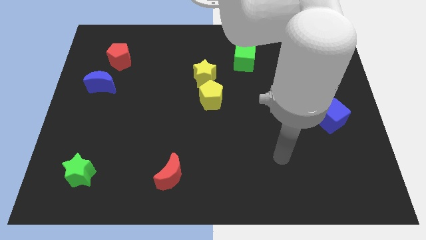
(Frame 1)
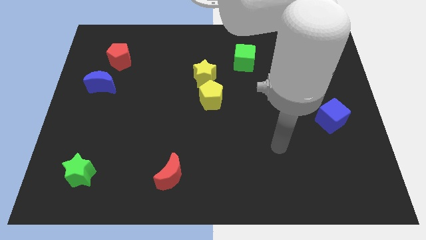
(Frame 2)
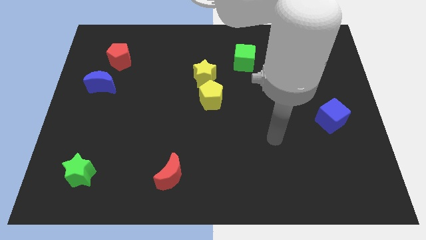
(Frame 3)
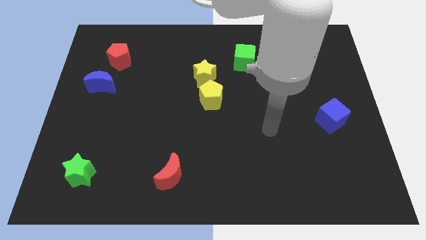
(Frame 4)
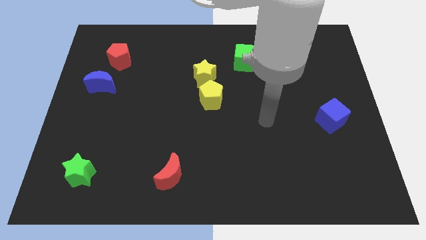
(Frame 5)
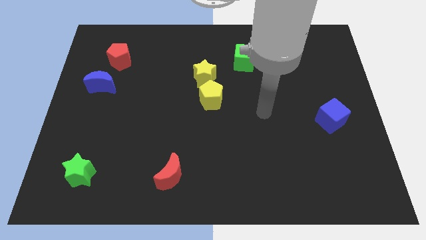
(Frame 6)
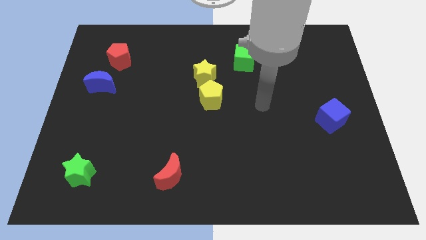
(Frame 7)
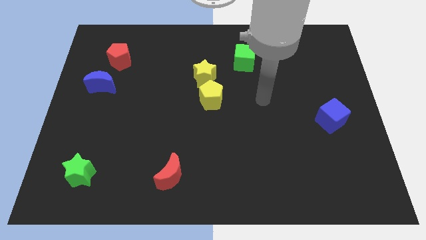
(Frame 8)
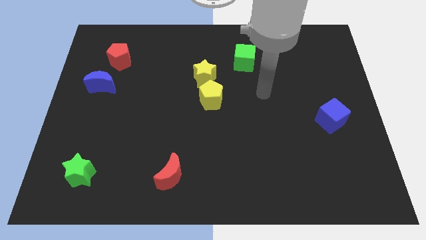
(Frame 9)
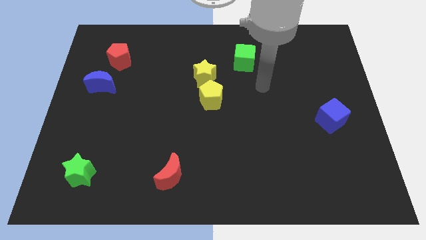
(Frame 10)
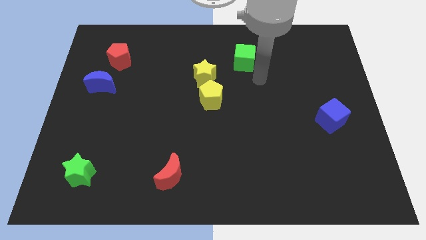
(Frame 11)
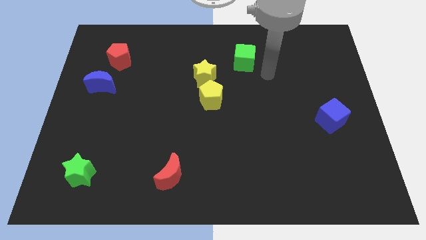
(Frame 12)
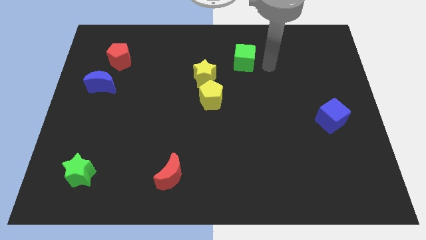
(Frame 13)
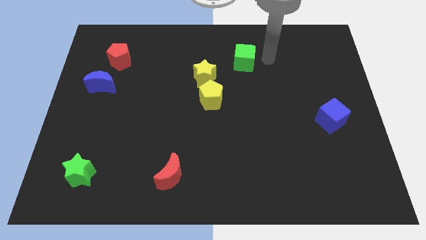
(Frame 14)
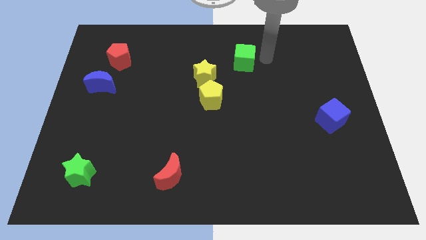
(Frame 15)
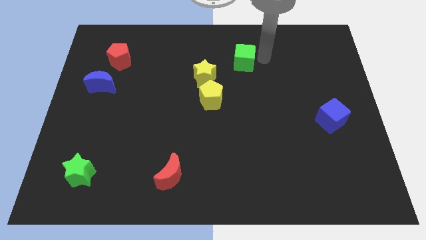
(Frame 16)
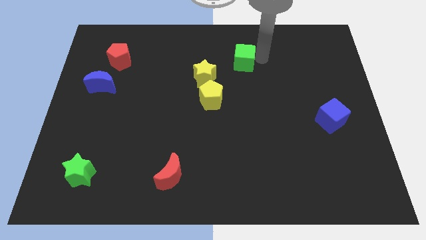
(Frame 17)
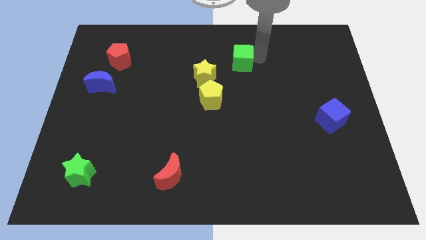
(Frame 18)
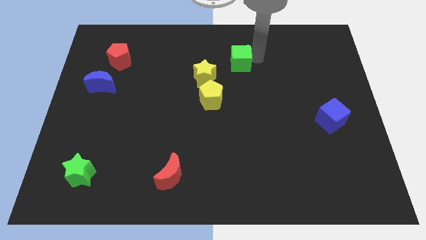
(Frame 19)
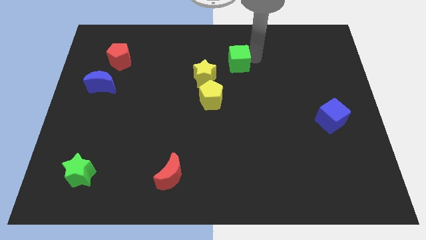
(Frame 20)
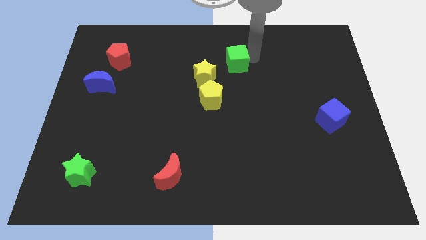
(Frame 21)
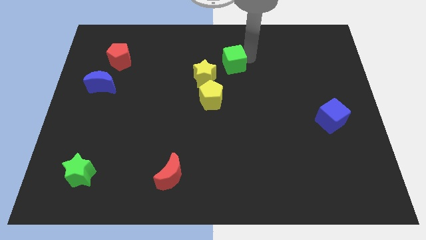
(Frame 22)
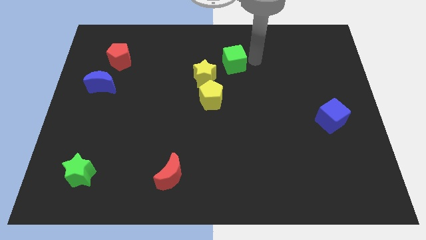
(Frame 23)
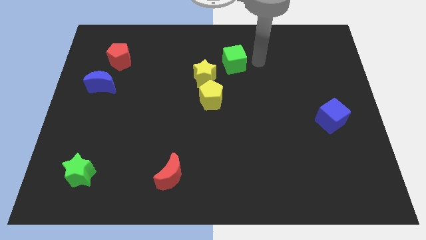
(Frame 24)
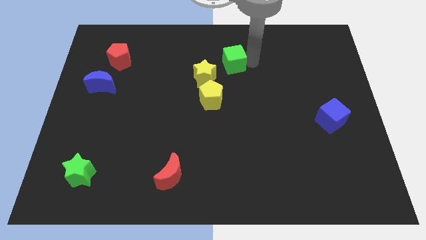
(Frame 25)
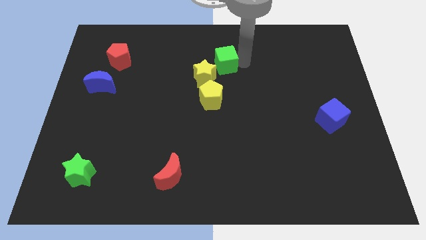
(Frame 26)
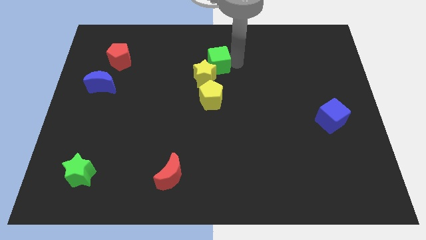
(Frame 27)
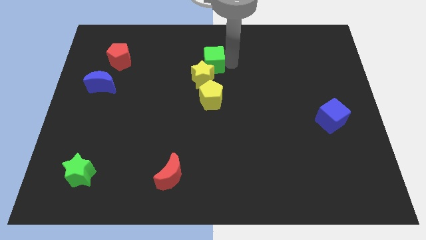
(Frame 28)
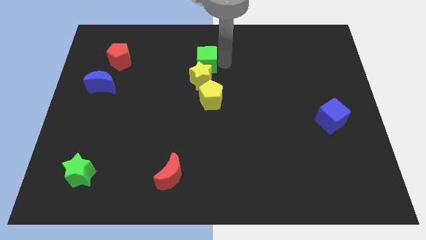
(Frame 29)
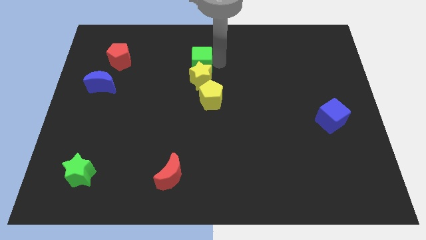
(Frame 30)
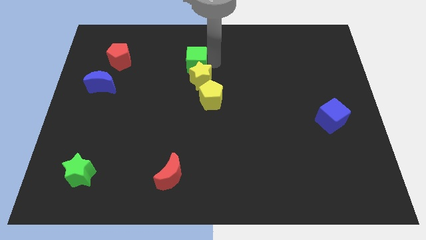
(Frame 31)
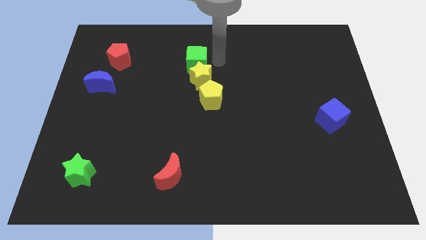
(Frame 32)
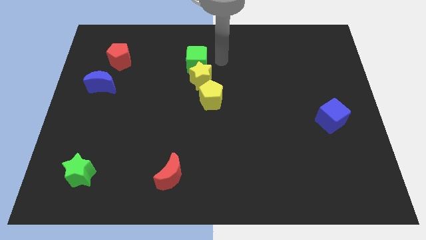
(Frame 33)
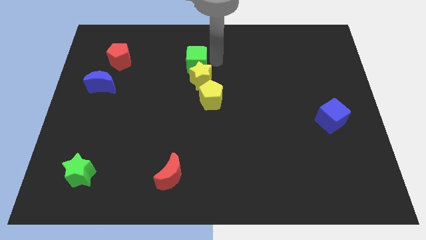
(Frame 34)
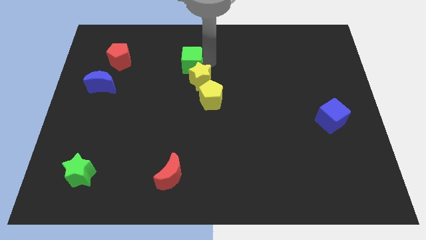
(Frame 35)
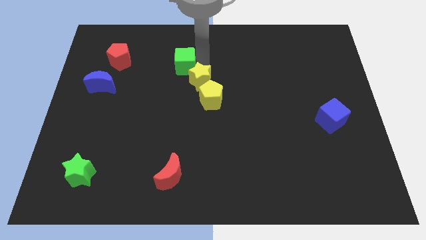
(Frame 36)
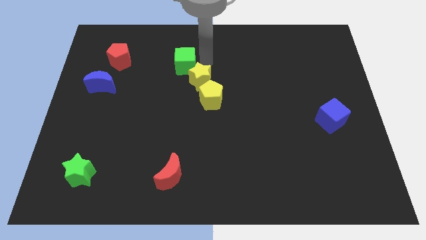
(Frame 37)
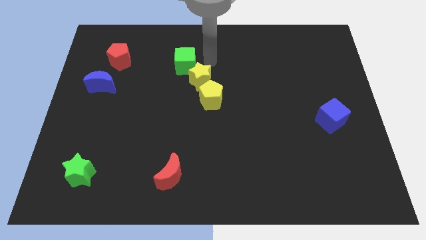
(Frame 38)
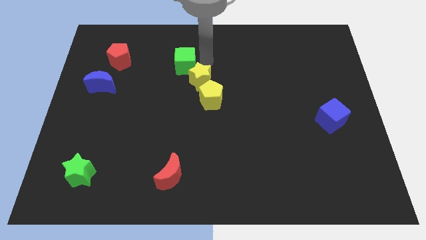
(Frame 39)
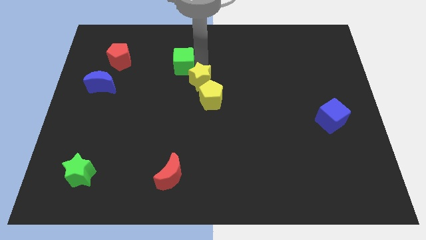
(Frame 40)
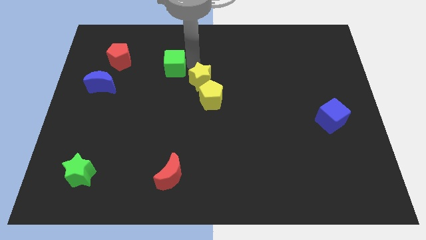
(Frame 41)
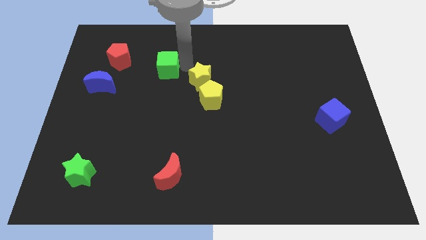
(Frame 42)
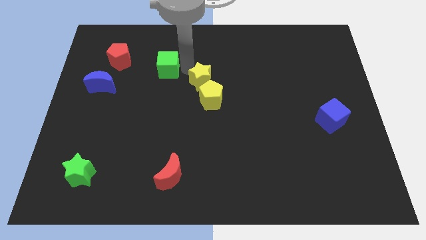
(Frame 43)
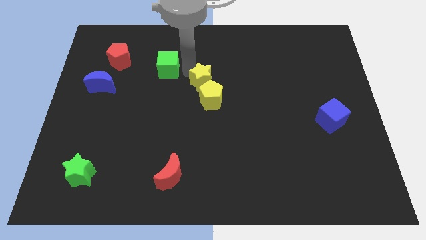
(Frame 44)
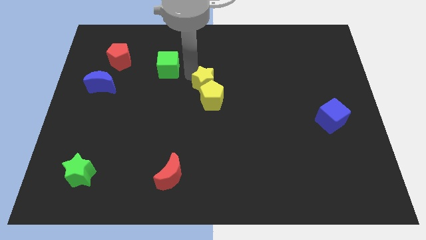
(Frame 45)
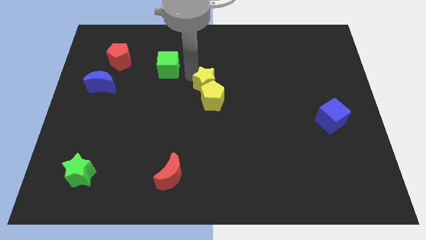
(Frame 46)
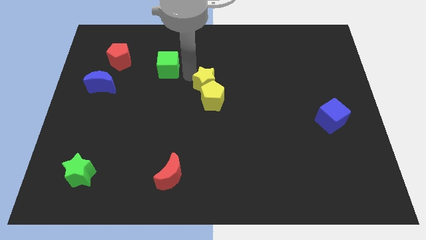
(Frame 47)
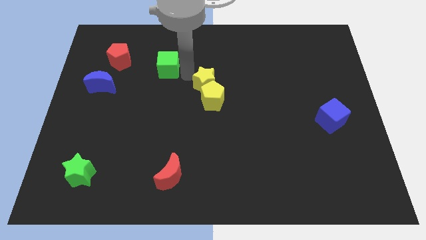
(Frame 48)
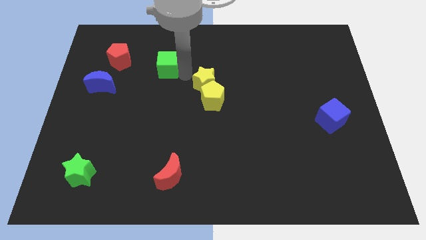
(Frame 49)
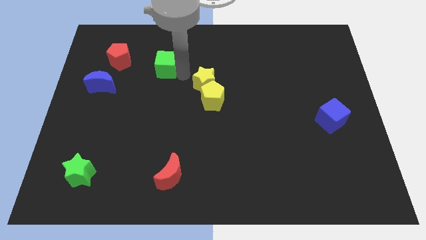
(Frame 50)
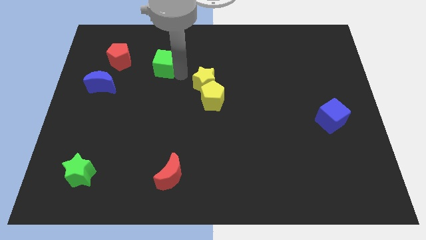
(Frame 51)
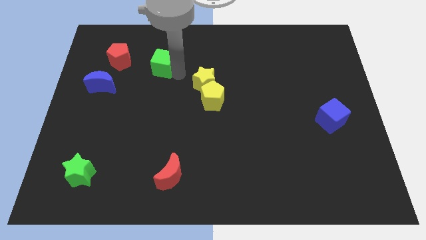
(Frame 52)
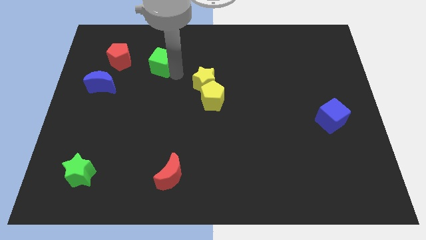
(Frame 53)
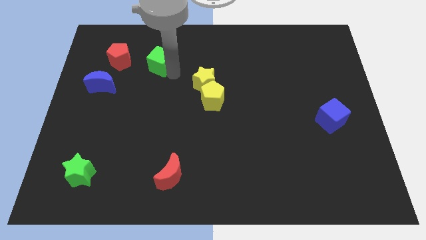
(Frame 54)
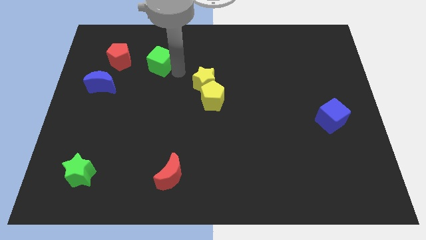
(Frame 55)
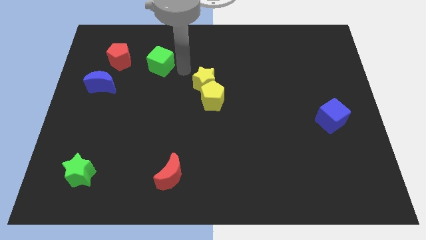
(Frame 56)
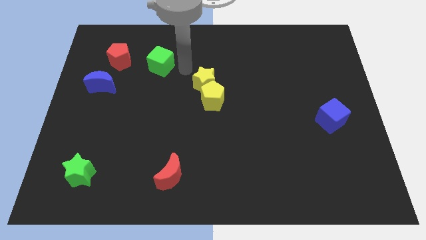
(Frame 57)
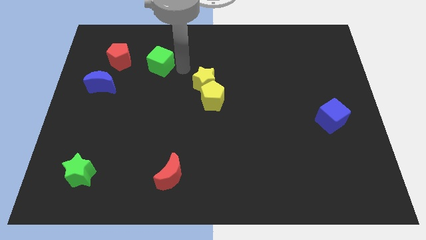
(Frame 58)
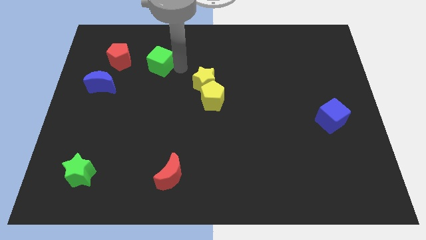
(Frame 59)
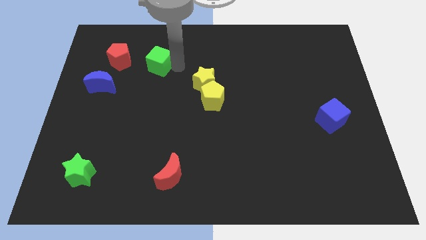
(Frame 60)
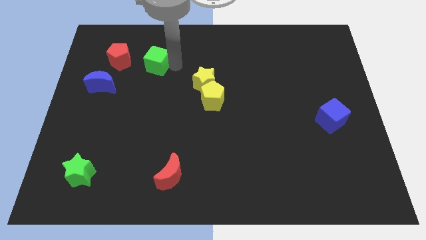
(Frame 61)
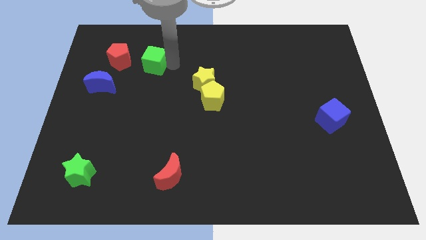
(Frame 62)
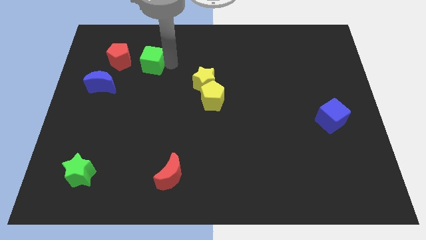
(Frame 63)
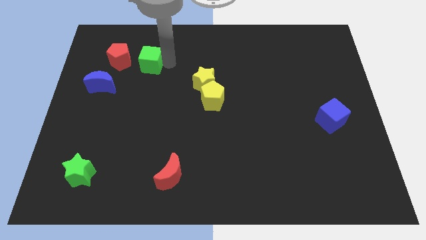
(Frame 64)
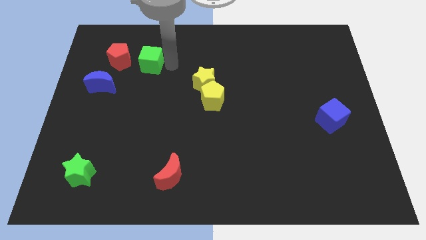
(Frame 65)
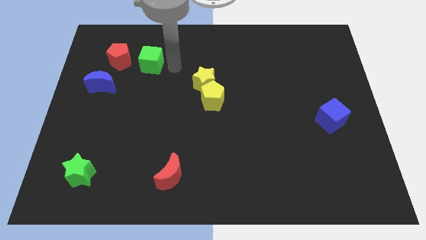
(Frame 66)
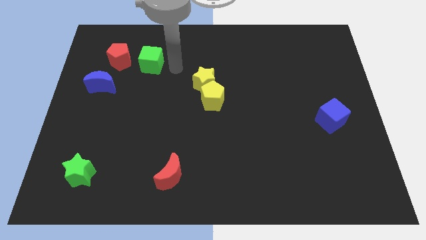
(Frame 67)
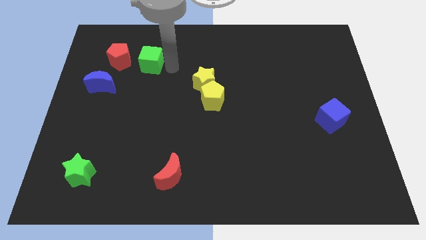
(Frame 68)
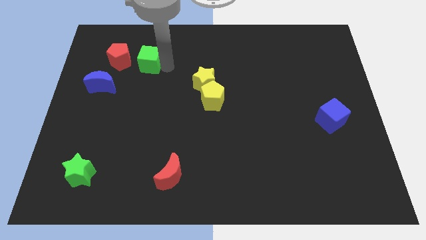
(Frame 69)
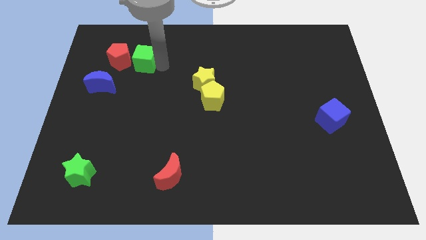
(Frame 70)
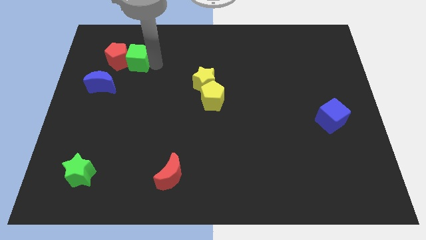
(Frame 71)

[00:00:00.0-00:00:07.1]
put the green cube towards the red pentagon

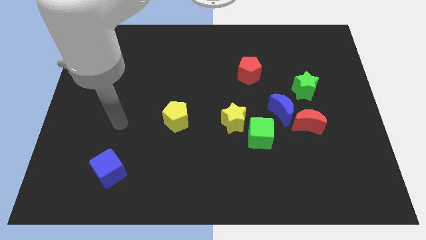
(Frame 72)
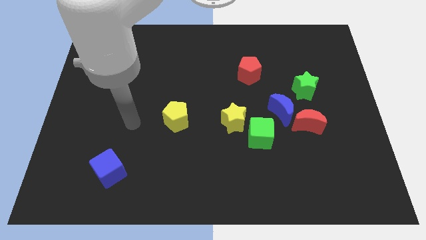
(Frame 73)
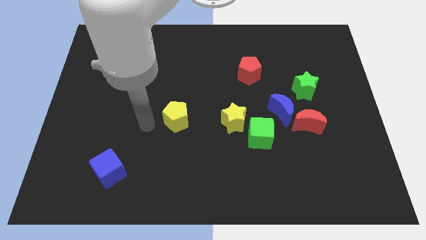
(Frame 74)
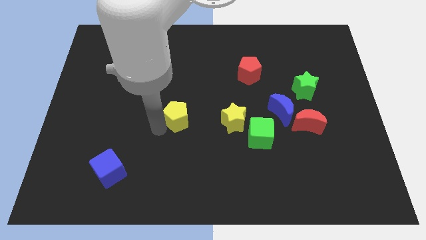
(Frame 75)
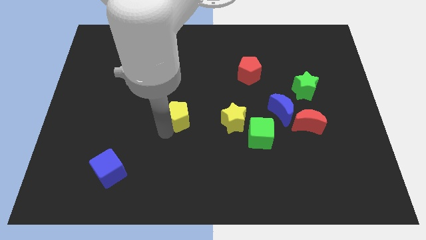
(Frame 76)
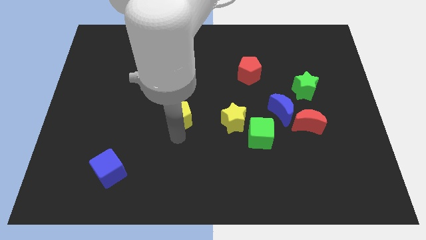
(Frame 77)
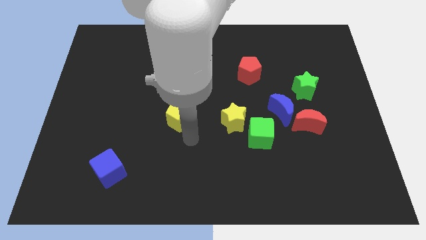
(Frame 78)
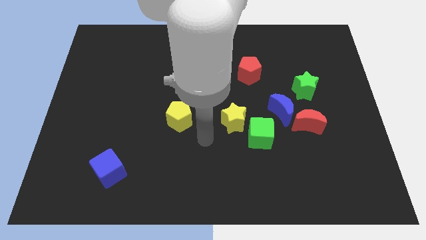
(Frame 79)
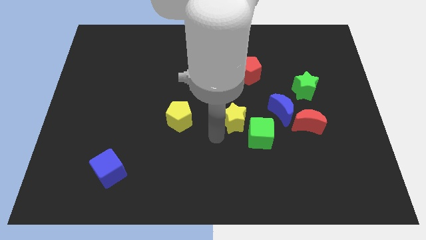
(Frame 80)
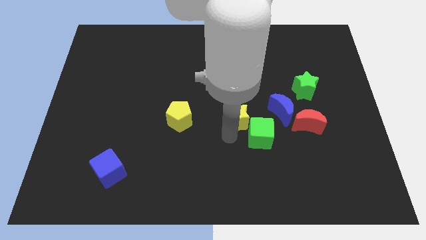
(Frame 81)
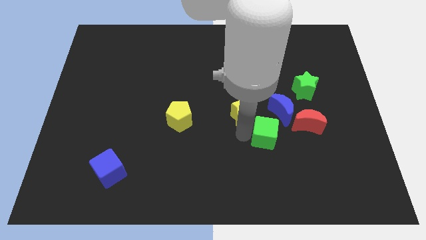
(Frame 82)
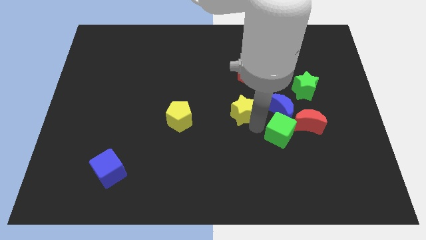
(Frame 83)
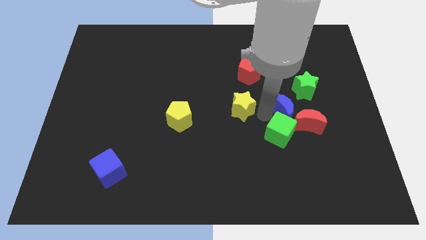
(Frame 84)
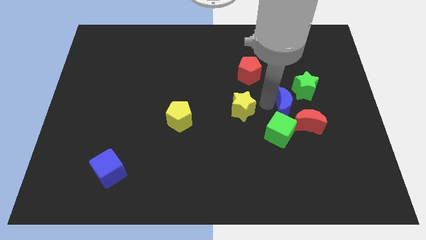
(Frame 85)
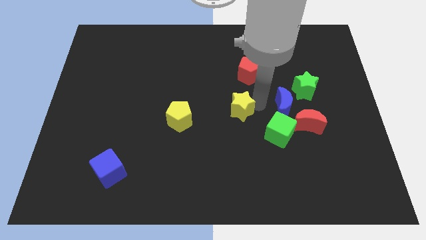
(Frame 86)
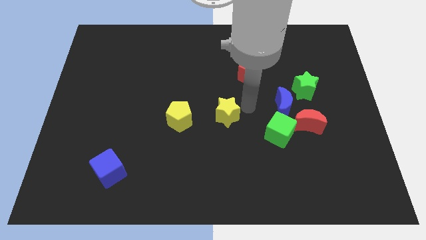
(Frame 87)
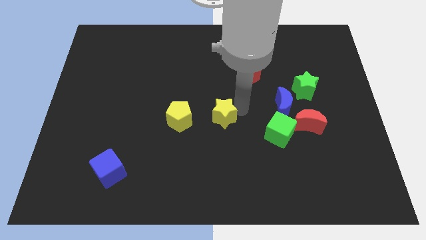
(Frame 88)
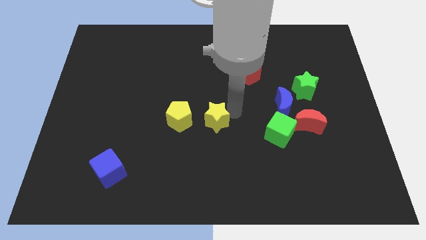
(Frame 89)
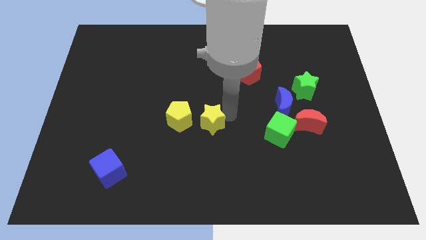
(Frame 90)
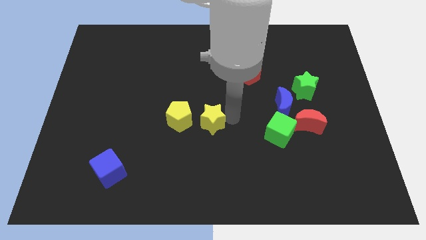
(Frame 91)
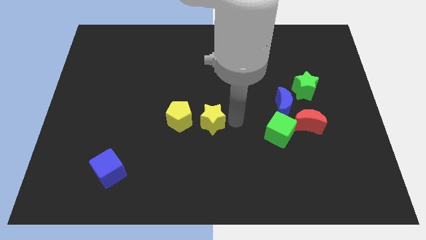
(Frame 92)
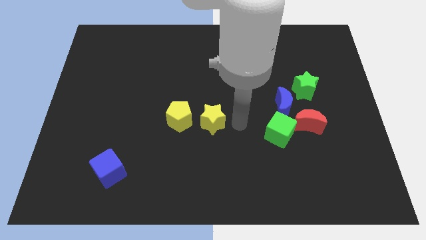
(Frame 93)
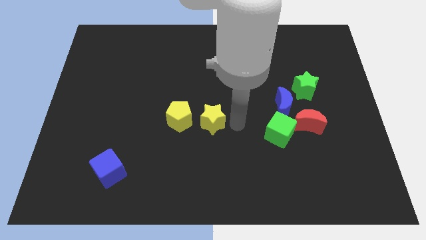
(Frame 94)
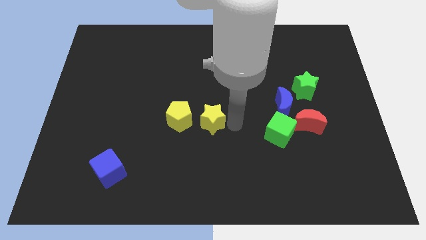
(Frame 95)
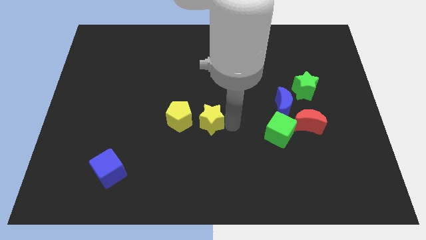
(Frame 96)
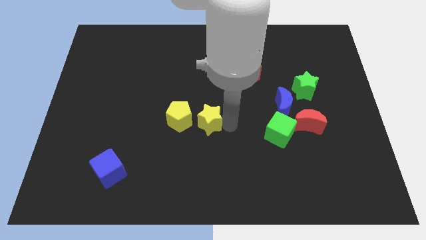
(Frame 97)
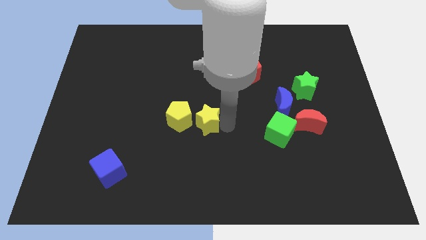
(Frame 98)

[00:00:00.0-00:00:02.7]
push the yellow star next to the yellow pentagon
